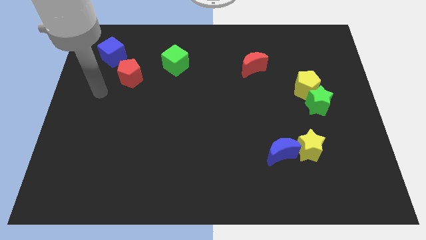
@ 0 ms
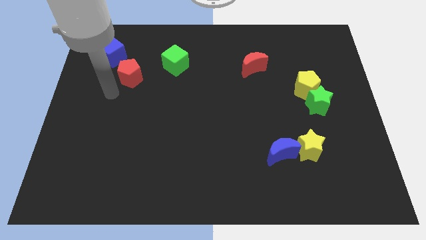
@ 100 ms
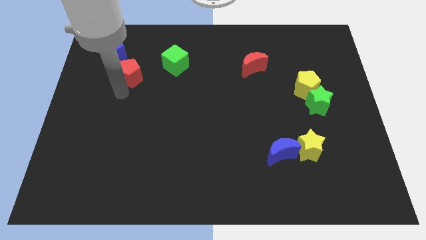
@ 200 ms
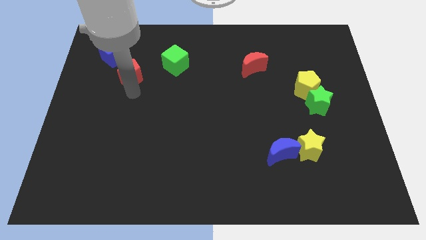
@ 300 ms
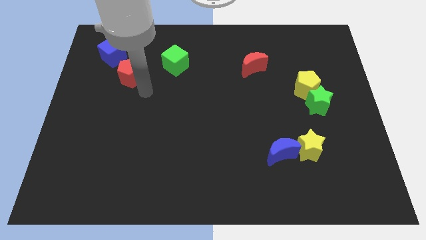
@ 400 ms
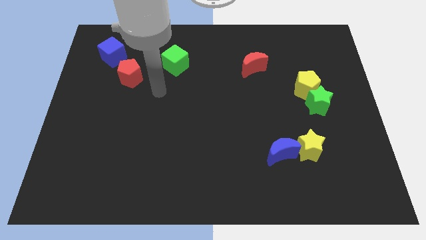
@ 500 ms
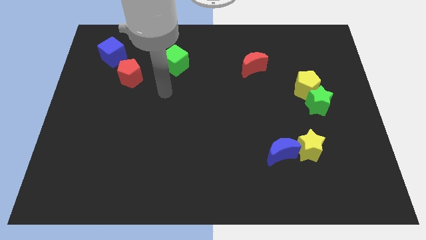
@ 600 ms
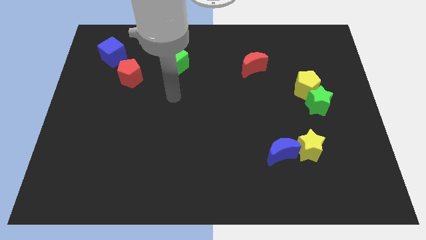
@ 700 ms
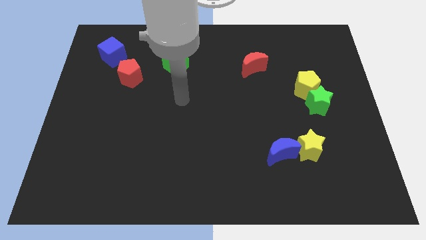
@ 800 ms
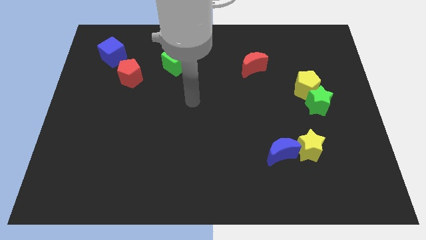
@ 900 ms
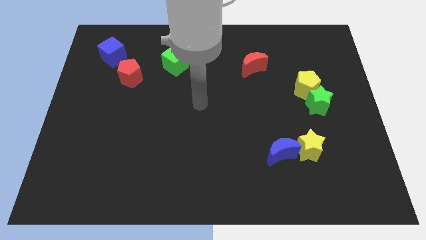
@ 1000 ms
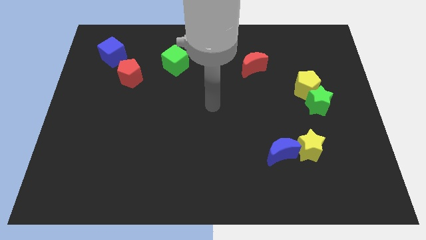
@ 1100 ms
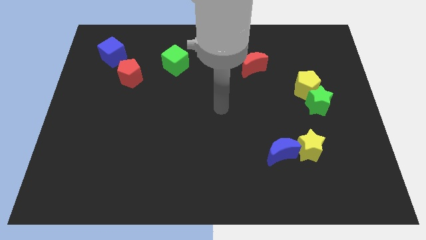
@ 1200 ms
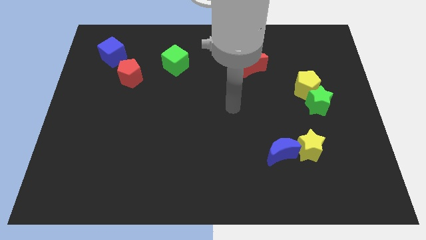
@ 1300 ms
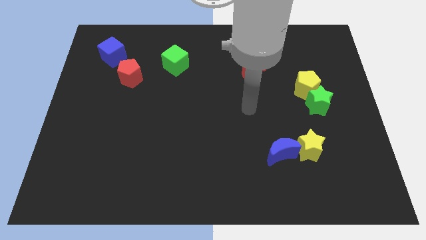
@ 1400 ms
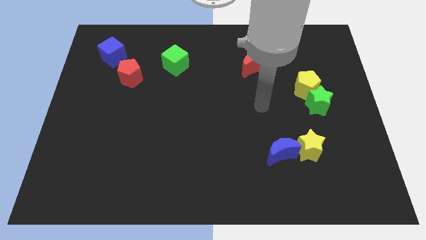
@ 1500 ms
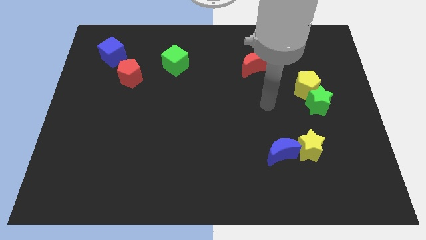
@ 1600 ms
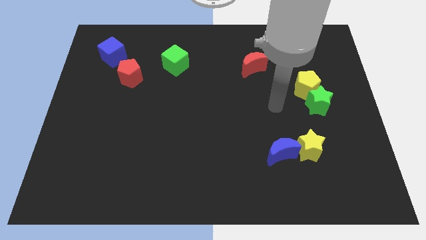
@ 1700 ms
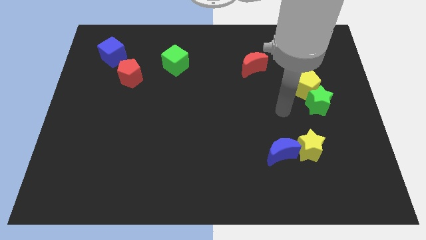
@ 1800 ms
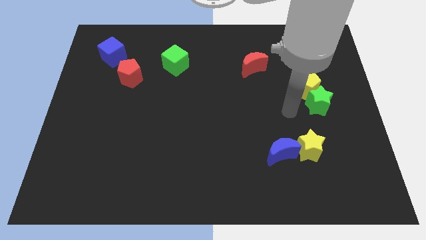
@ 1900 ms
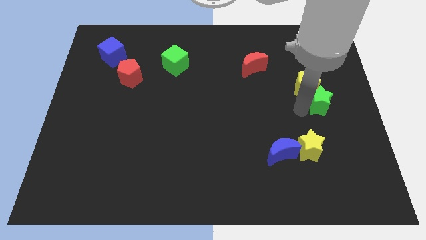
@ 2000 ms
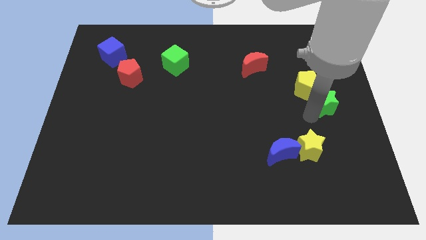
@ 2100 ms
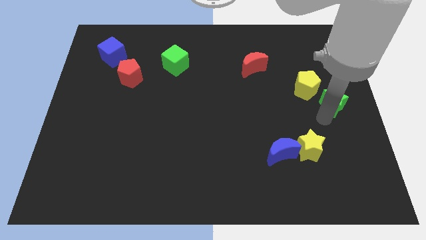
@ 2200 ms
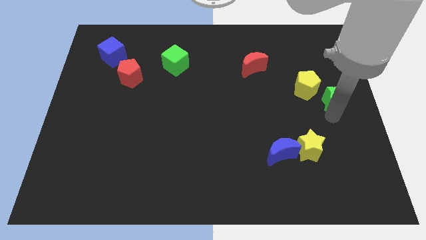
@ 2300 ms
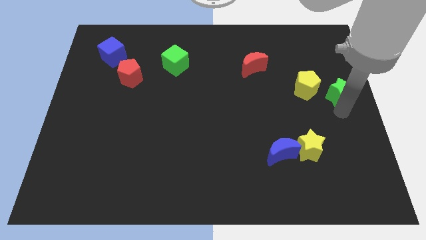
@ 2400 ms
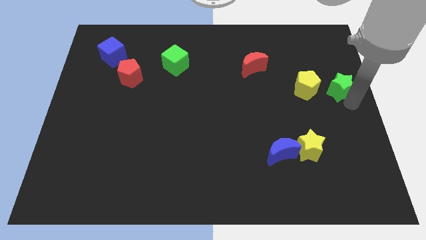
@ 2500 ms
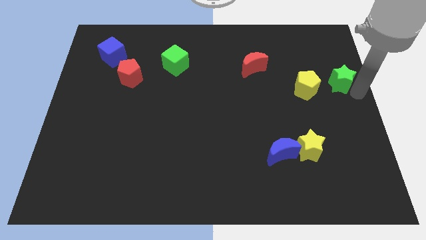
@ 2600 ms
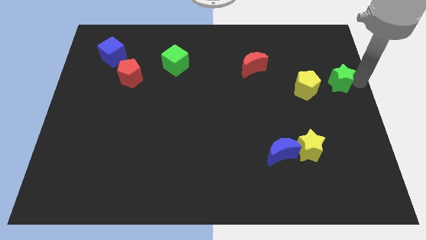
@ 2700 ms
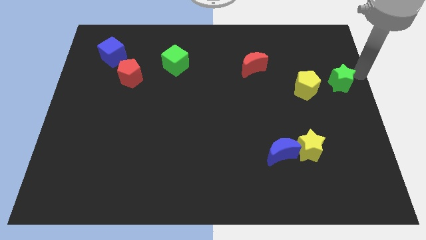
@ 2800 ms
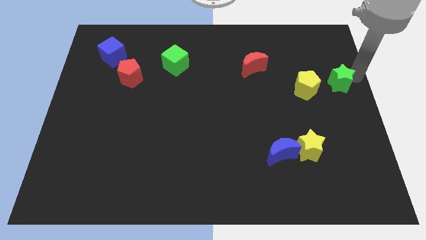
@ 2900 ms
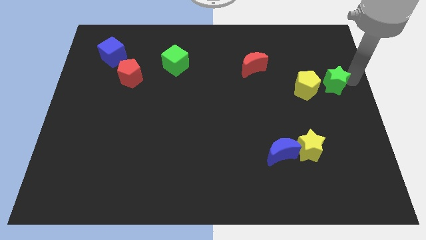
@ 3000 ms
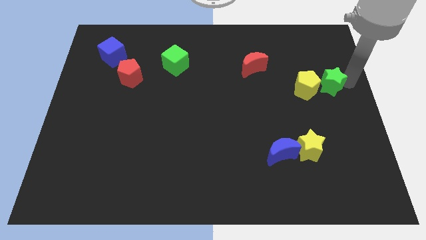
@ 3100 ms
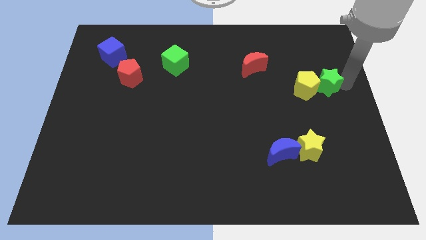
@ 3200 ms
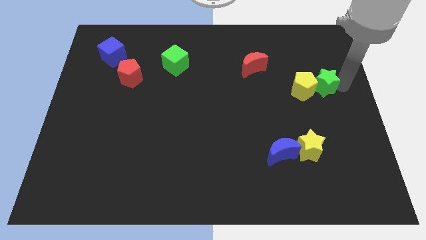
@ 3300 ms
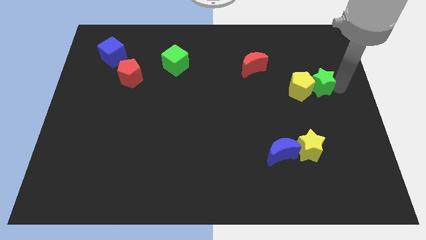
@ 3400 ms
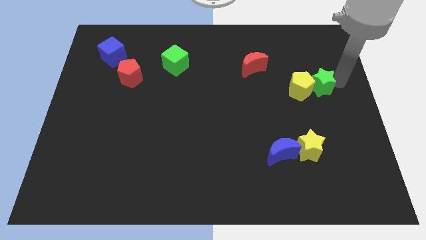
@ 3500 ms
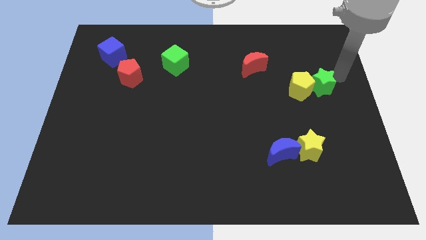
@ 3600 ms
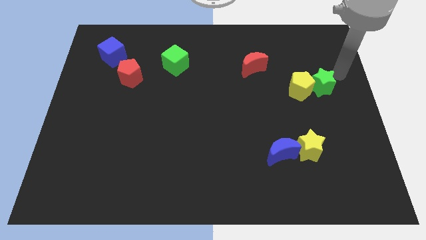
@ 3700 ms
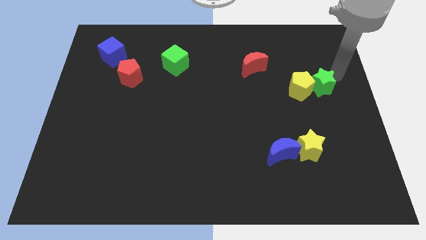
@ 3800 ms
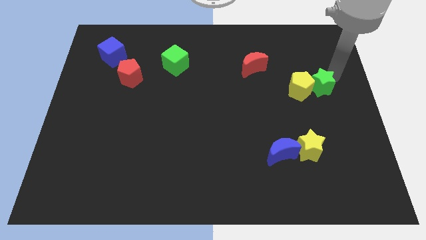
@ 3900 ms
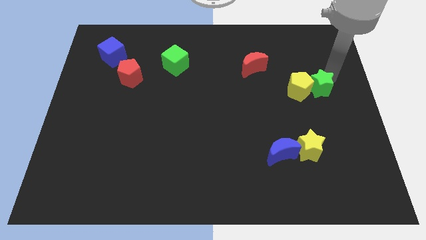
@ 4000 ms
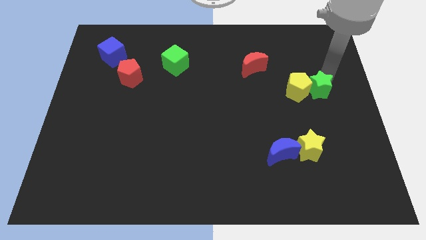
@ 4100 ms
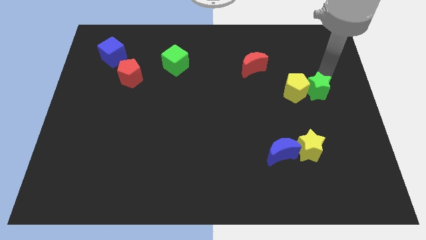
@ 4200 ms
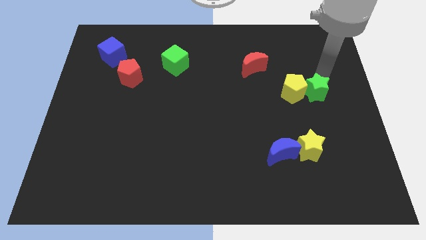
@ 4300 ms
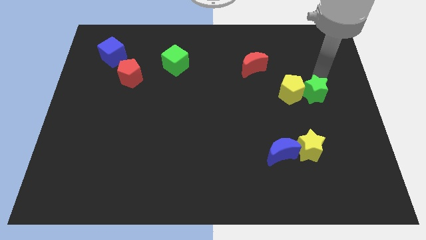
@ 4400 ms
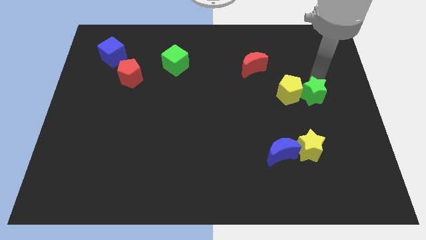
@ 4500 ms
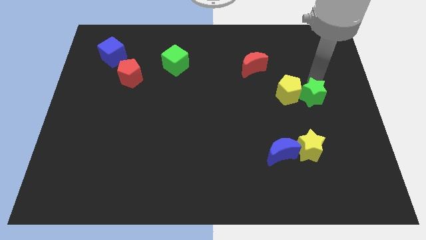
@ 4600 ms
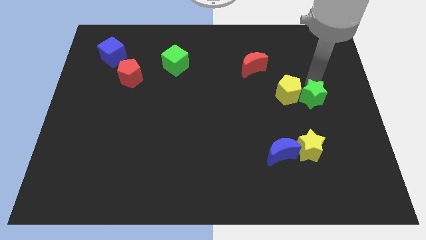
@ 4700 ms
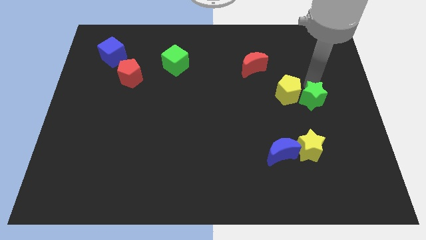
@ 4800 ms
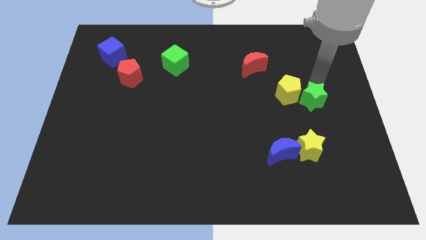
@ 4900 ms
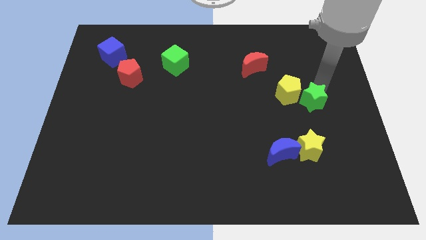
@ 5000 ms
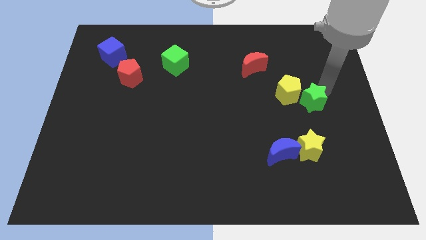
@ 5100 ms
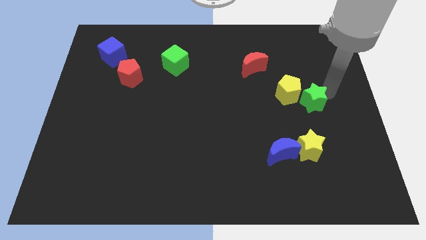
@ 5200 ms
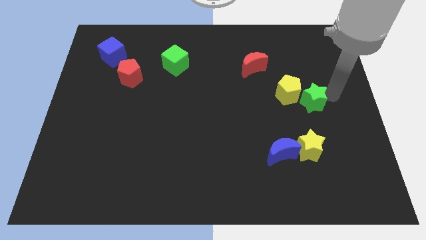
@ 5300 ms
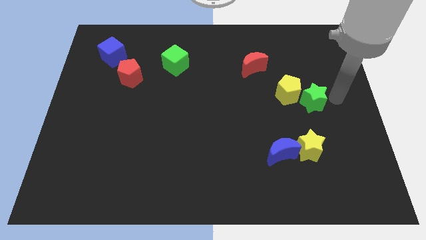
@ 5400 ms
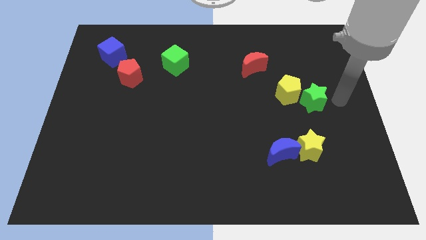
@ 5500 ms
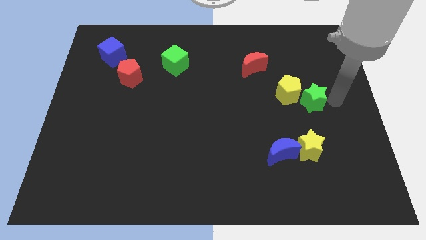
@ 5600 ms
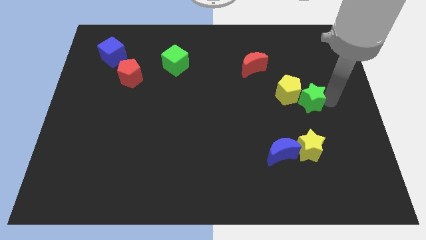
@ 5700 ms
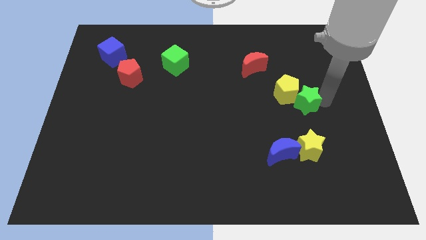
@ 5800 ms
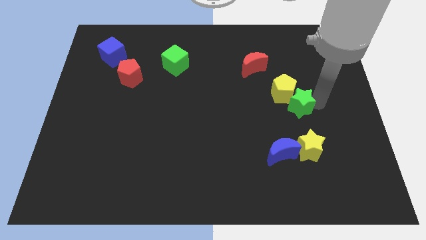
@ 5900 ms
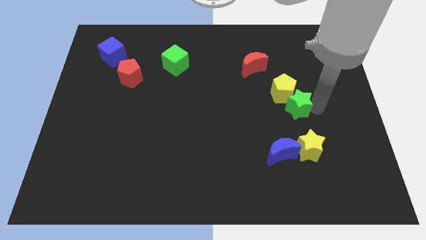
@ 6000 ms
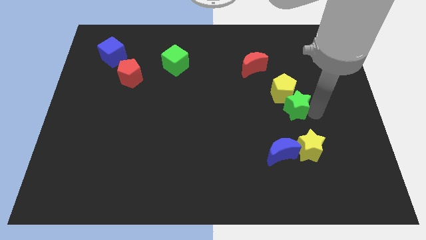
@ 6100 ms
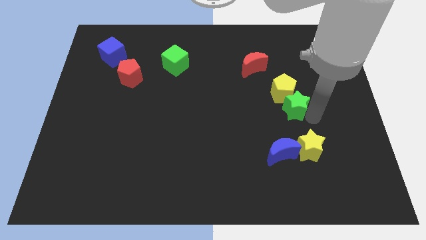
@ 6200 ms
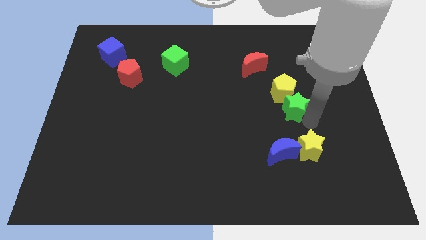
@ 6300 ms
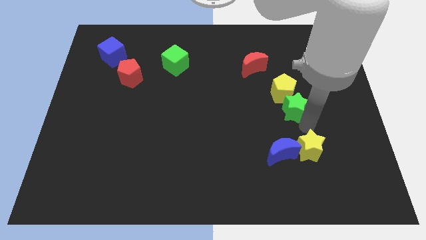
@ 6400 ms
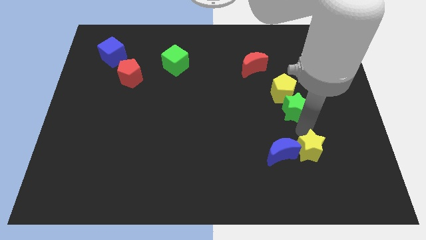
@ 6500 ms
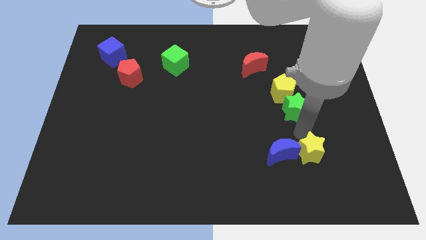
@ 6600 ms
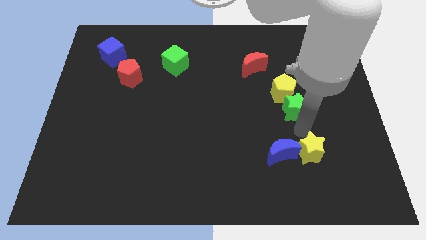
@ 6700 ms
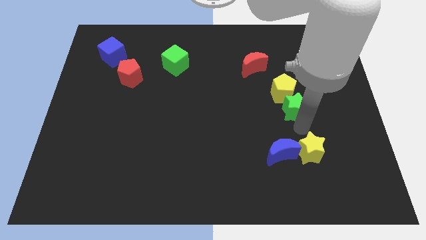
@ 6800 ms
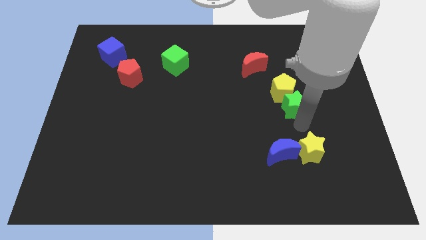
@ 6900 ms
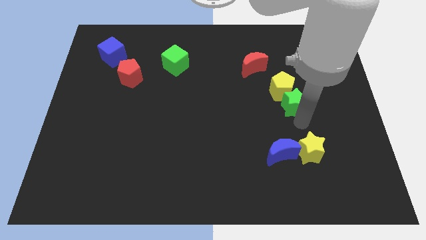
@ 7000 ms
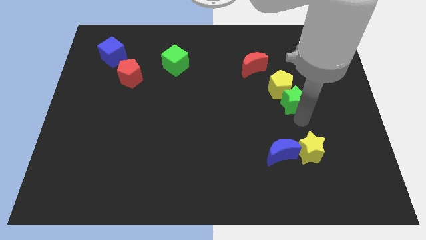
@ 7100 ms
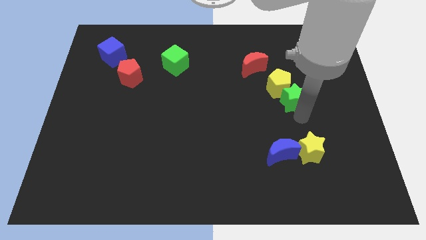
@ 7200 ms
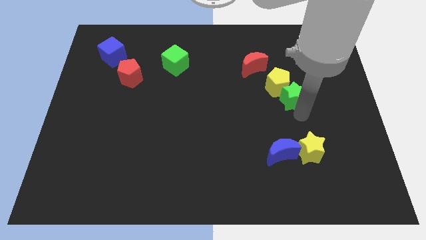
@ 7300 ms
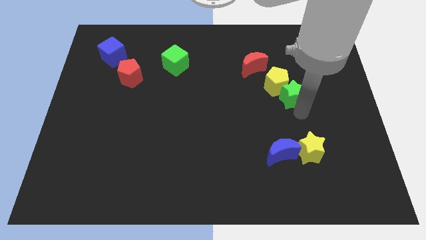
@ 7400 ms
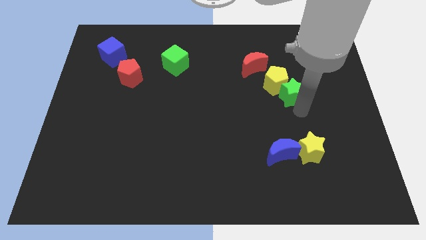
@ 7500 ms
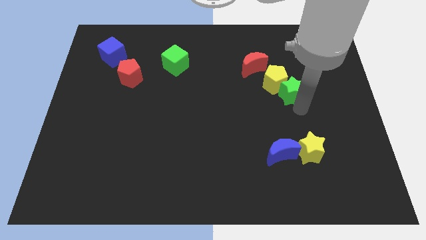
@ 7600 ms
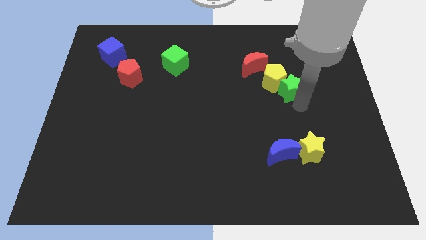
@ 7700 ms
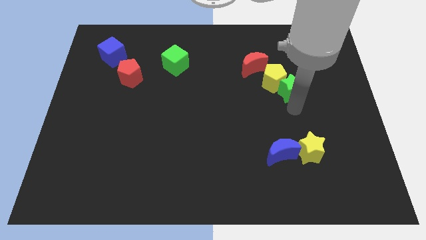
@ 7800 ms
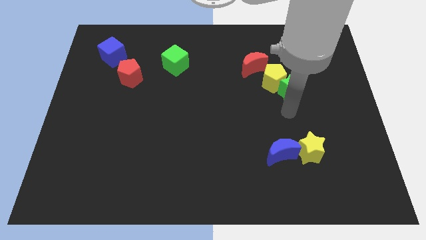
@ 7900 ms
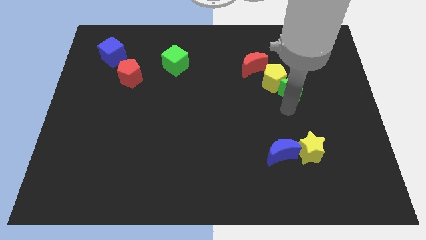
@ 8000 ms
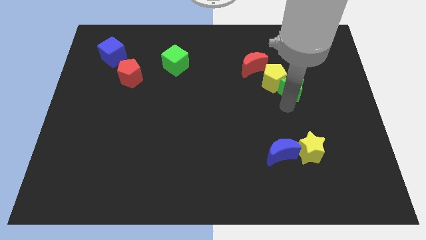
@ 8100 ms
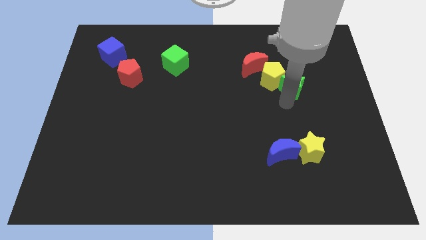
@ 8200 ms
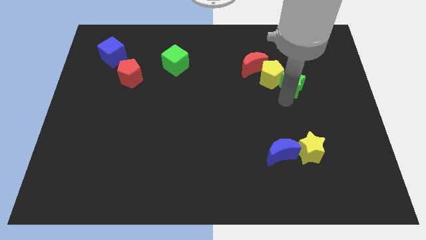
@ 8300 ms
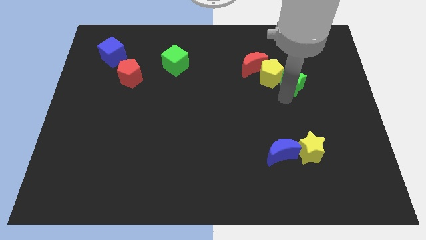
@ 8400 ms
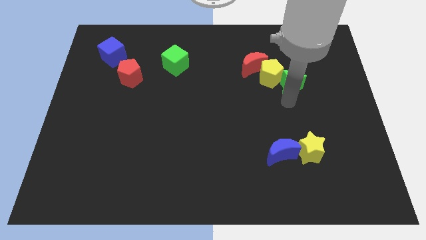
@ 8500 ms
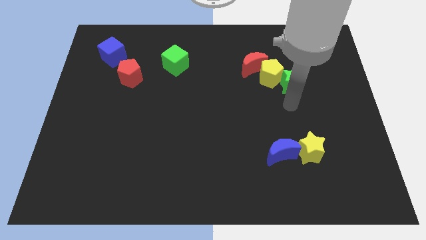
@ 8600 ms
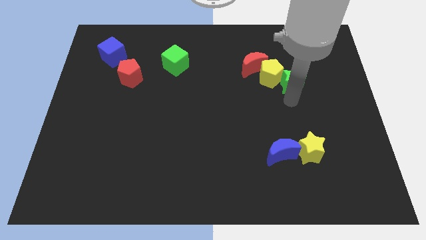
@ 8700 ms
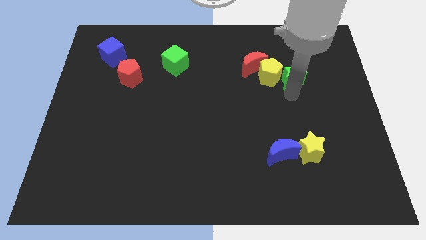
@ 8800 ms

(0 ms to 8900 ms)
move the green star to the right side of the red moon
